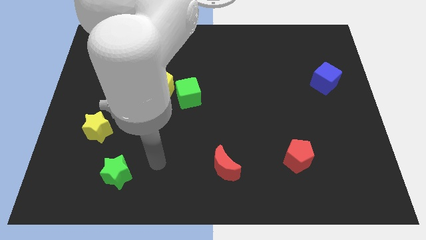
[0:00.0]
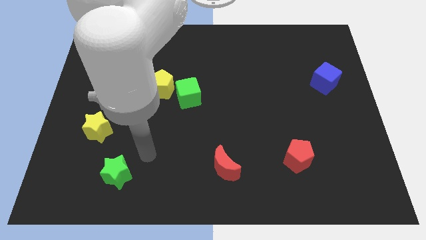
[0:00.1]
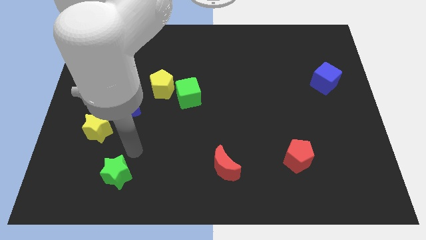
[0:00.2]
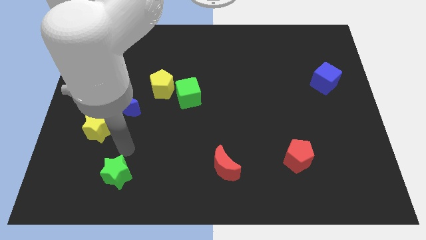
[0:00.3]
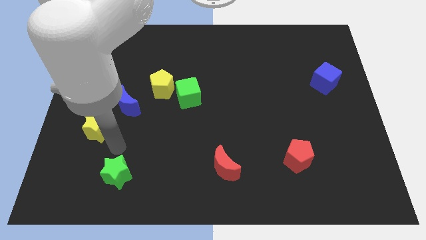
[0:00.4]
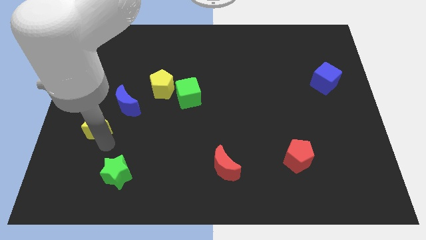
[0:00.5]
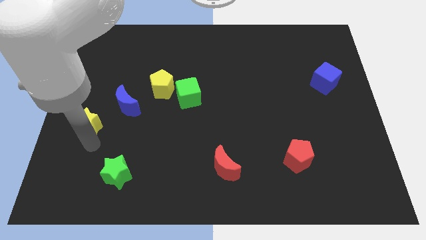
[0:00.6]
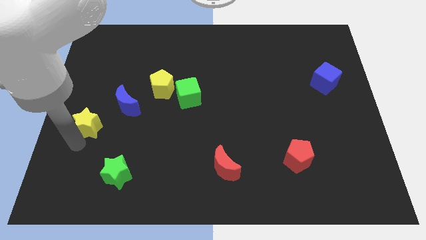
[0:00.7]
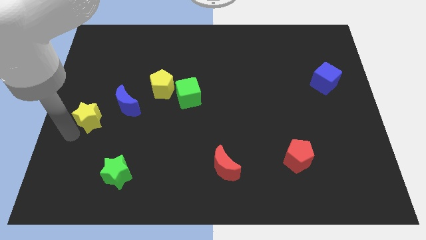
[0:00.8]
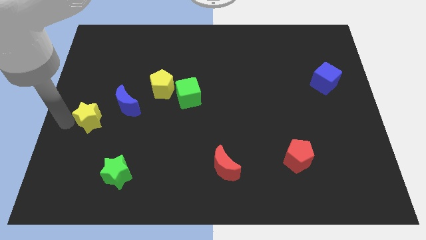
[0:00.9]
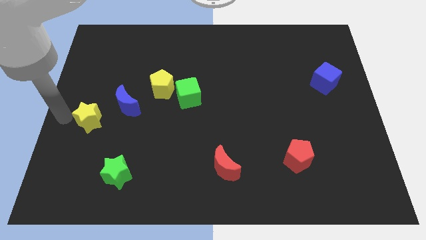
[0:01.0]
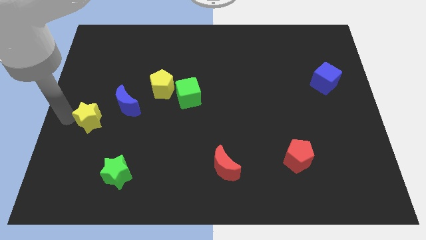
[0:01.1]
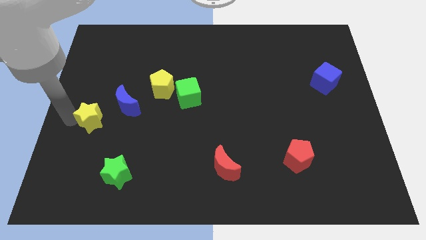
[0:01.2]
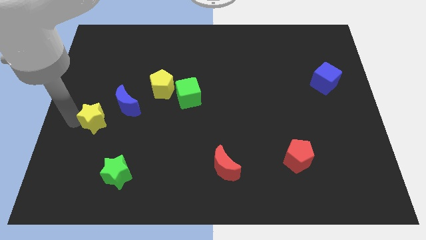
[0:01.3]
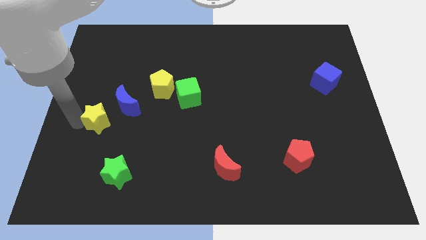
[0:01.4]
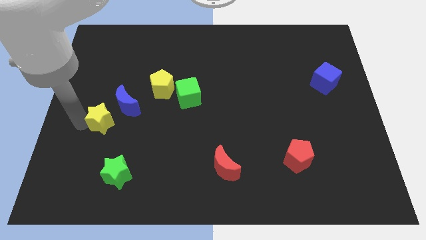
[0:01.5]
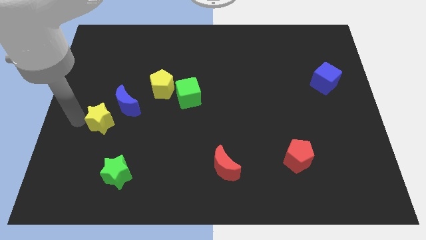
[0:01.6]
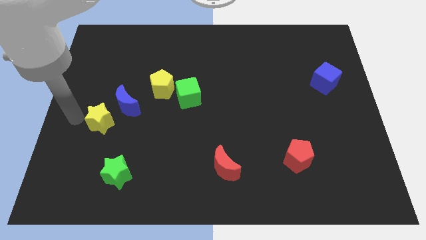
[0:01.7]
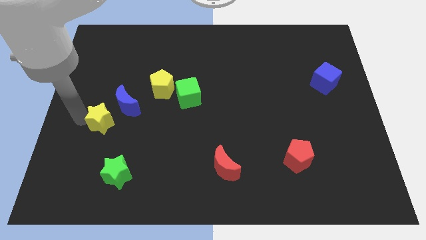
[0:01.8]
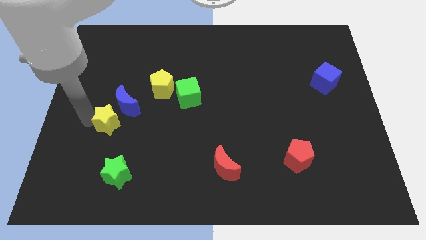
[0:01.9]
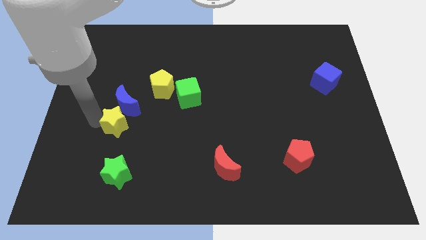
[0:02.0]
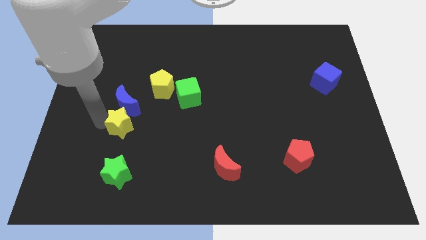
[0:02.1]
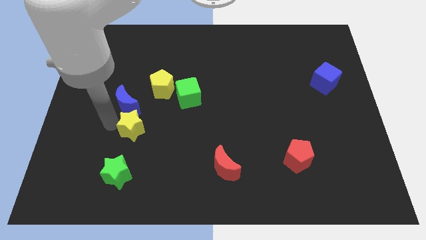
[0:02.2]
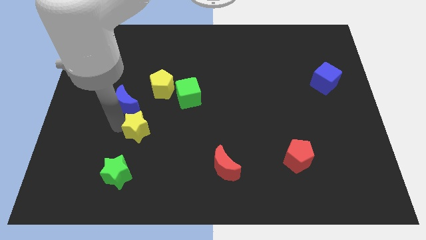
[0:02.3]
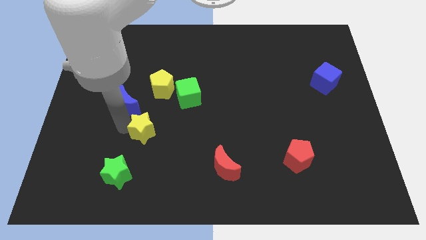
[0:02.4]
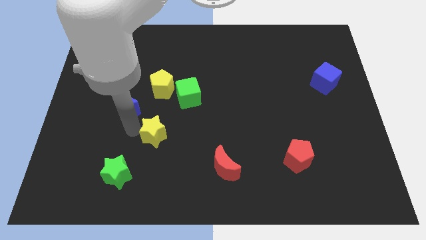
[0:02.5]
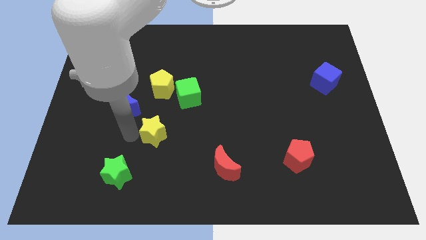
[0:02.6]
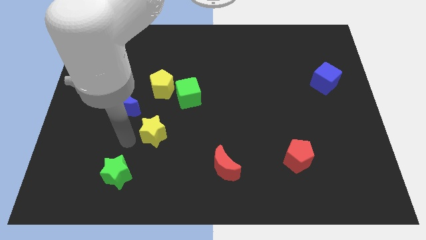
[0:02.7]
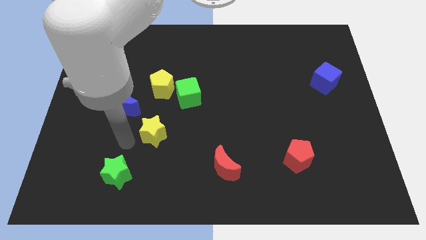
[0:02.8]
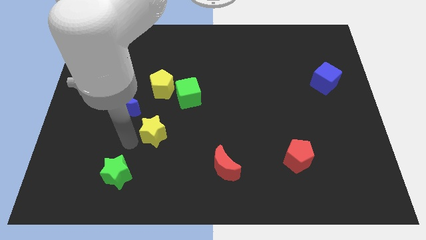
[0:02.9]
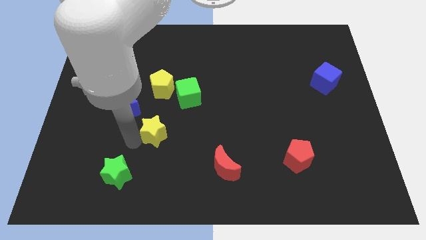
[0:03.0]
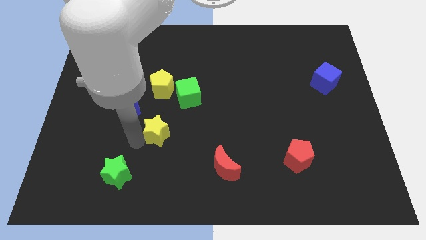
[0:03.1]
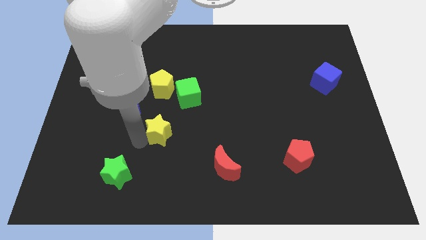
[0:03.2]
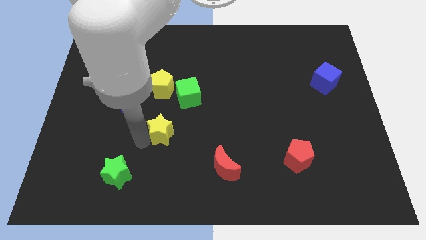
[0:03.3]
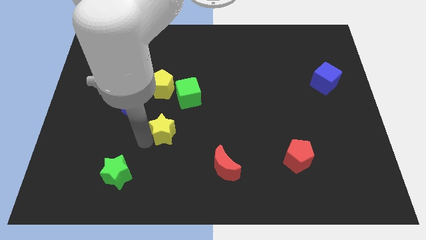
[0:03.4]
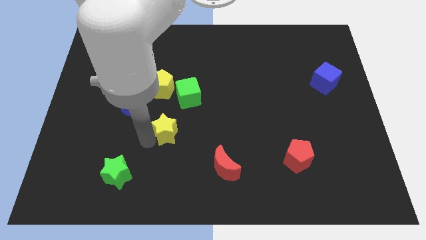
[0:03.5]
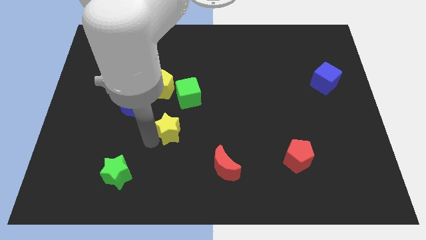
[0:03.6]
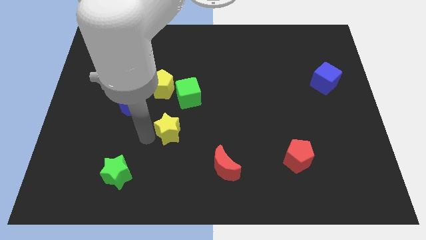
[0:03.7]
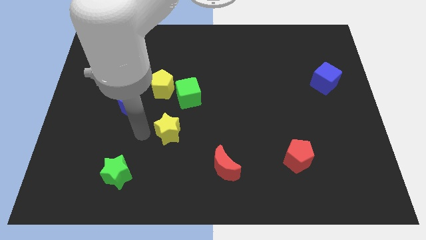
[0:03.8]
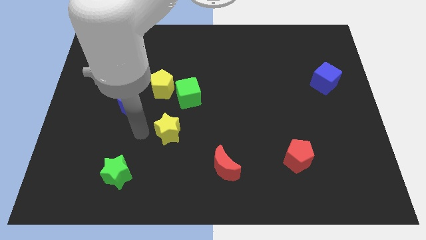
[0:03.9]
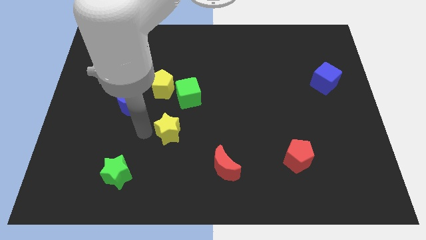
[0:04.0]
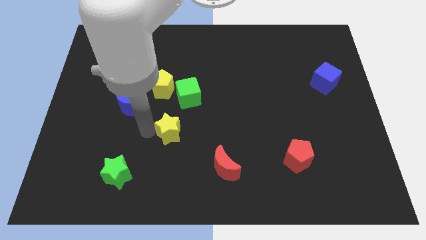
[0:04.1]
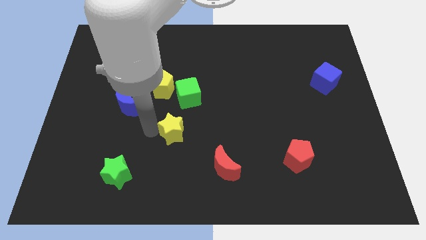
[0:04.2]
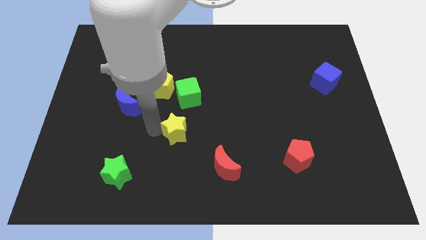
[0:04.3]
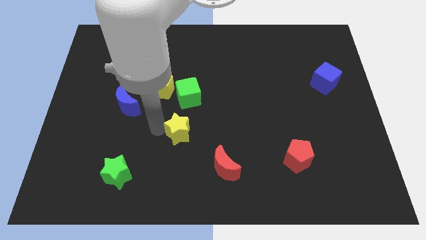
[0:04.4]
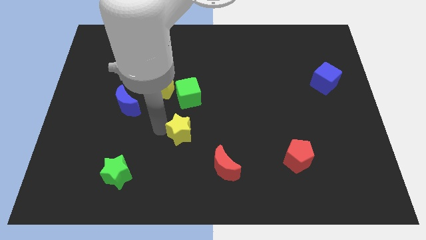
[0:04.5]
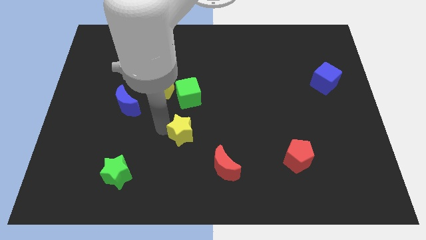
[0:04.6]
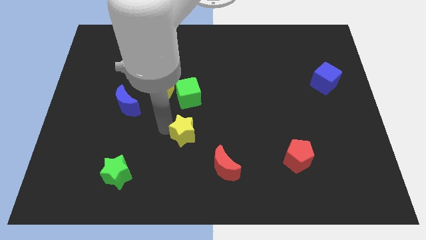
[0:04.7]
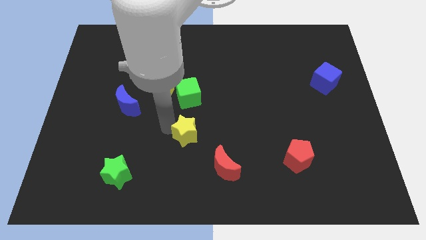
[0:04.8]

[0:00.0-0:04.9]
move the yellow star right

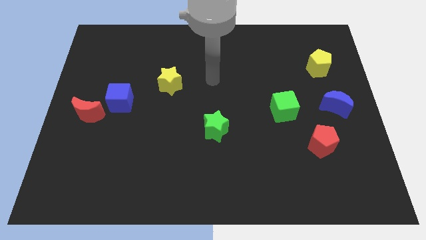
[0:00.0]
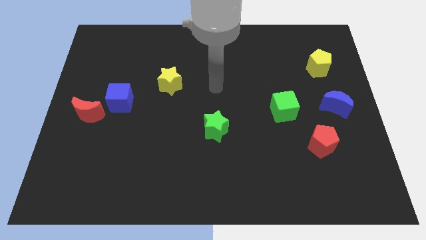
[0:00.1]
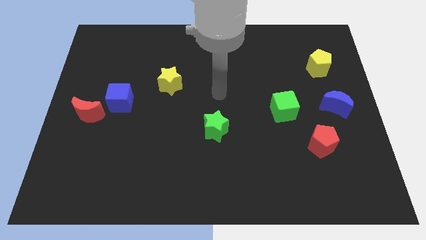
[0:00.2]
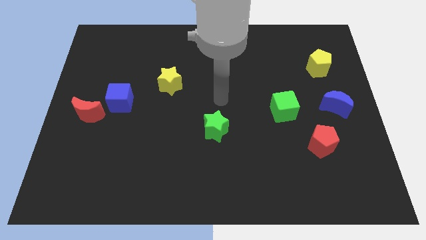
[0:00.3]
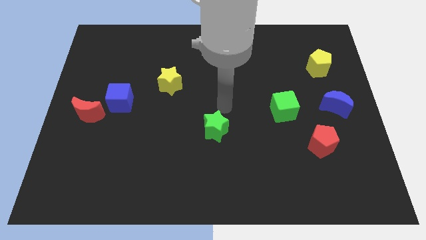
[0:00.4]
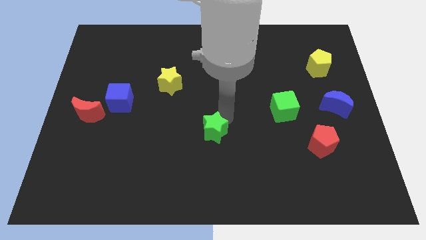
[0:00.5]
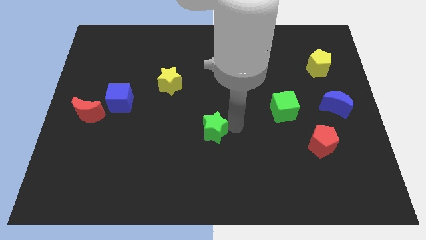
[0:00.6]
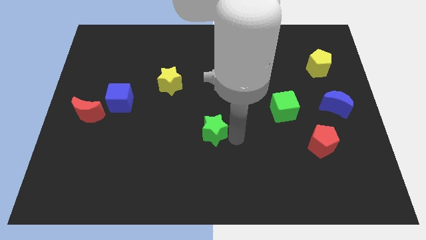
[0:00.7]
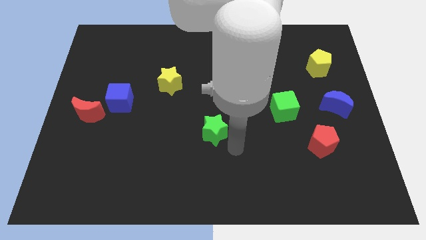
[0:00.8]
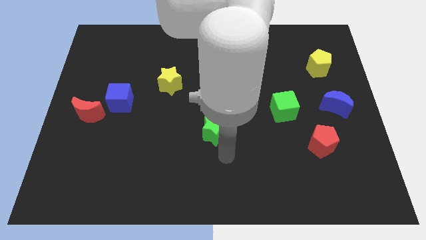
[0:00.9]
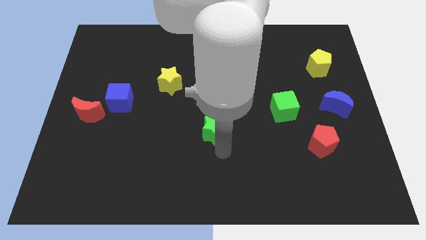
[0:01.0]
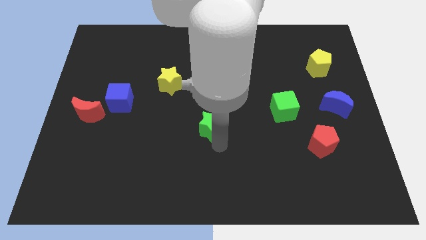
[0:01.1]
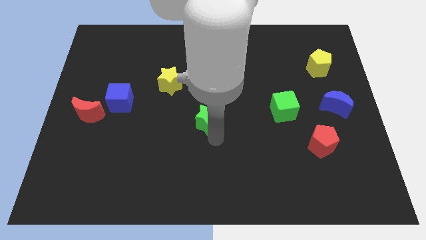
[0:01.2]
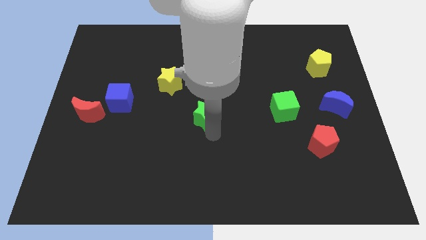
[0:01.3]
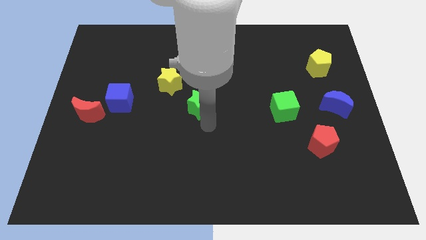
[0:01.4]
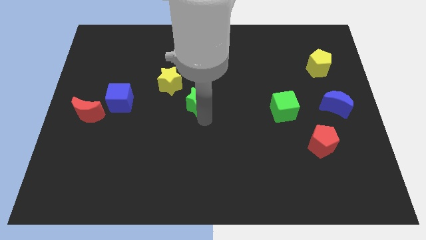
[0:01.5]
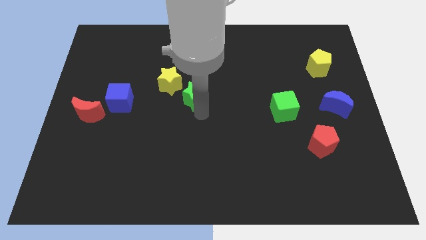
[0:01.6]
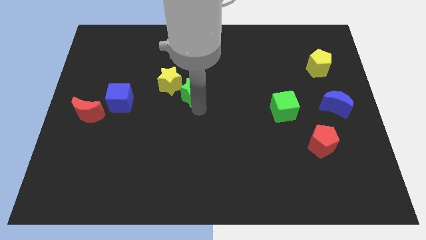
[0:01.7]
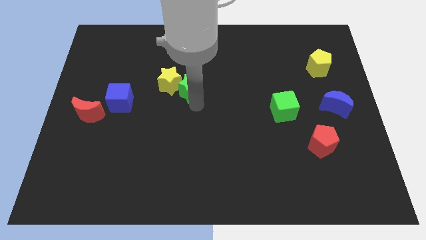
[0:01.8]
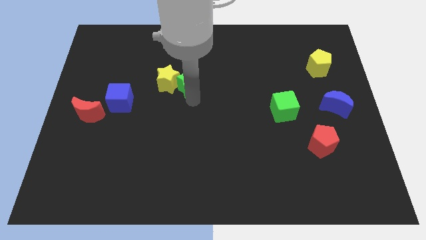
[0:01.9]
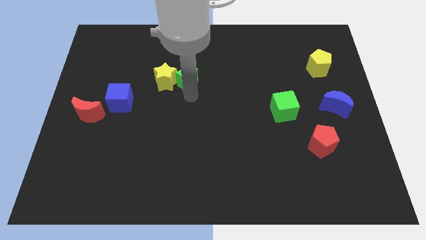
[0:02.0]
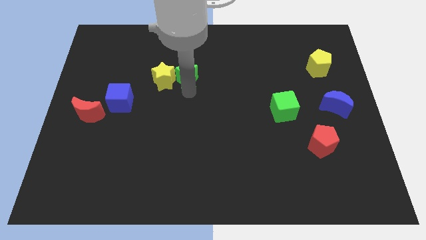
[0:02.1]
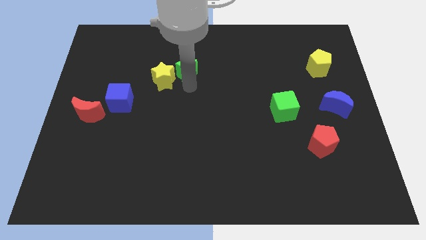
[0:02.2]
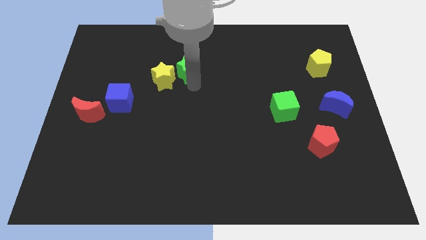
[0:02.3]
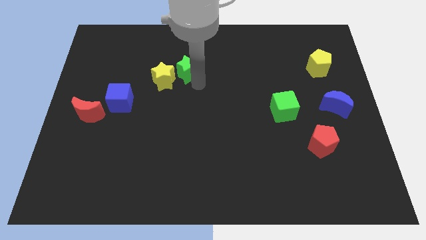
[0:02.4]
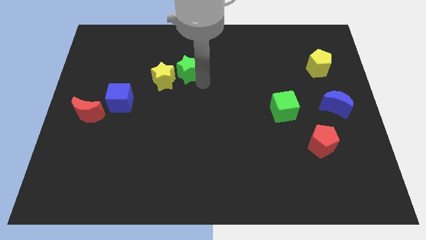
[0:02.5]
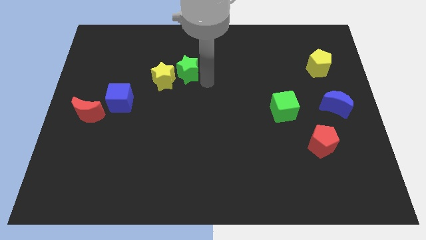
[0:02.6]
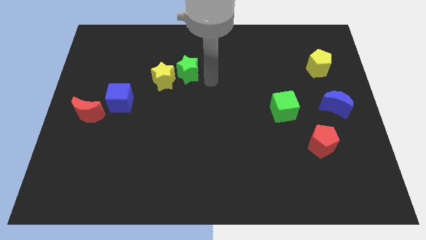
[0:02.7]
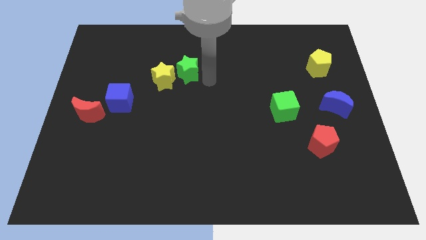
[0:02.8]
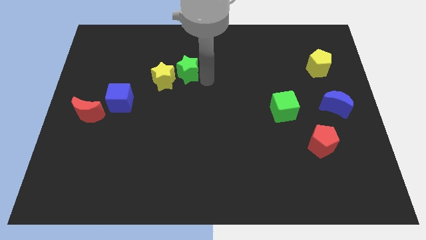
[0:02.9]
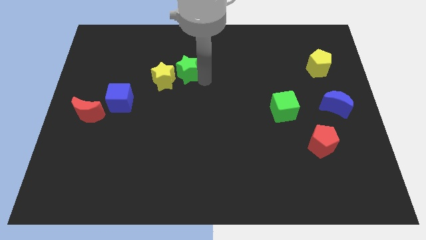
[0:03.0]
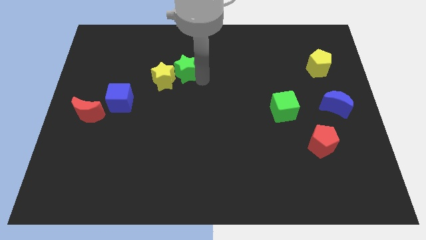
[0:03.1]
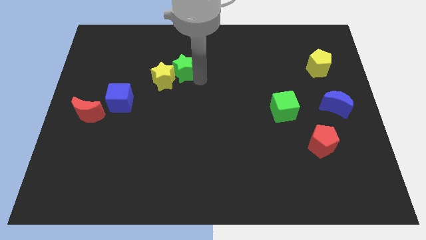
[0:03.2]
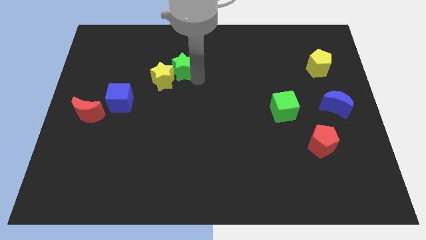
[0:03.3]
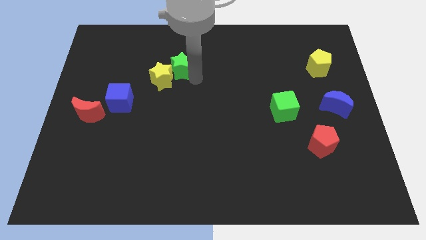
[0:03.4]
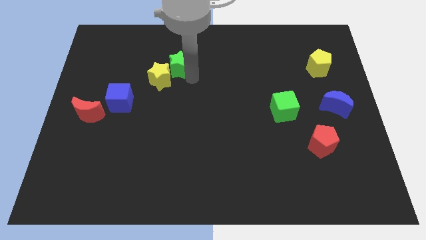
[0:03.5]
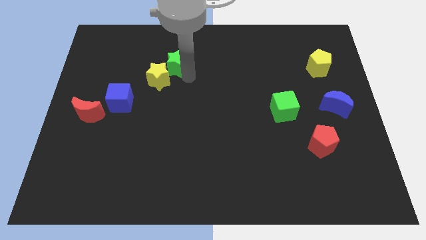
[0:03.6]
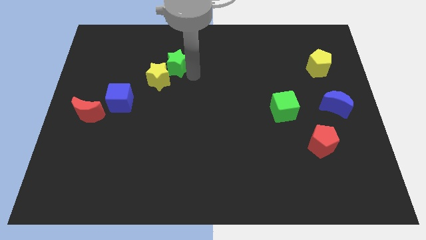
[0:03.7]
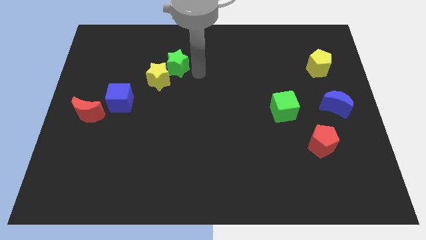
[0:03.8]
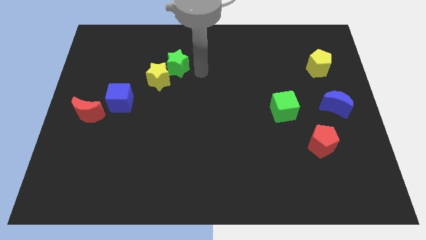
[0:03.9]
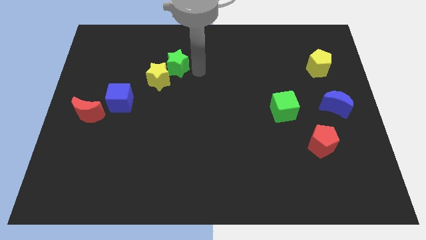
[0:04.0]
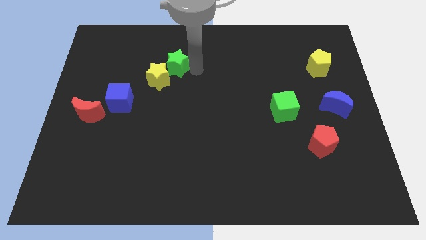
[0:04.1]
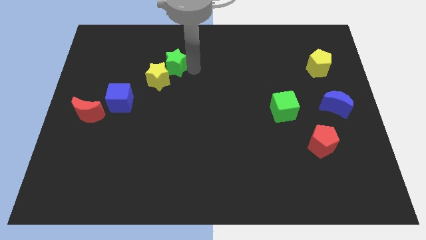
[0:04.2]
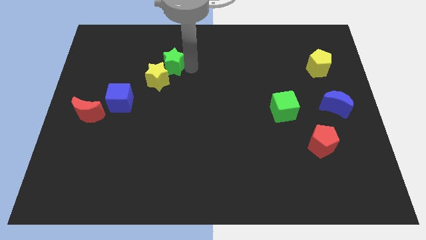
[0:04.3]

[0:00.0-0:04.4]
push the green star upwards and left
